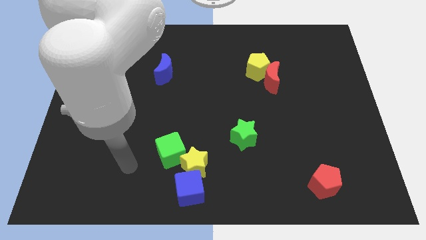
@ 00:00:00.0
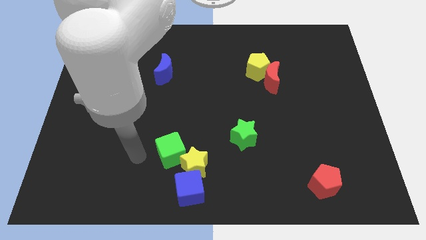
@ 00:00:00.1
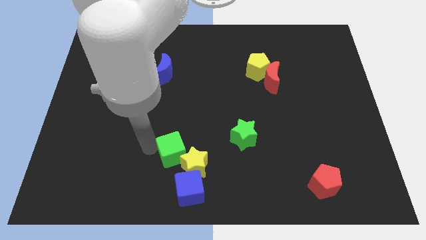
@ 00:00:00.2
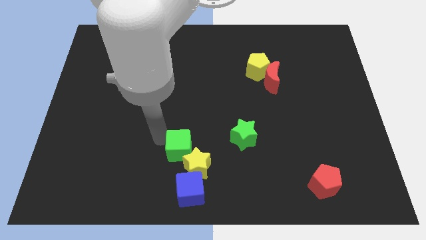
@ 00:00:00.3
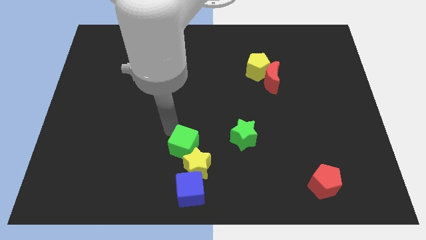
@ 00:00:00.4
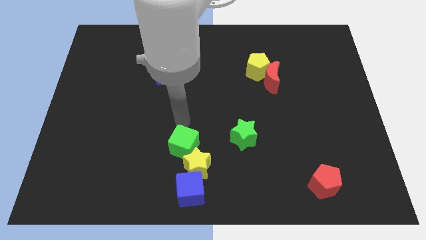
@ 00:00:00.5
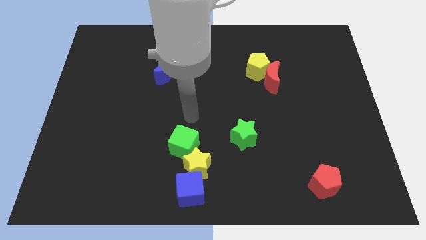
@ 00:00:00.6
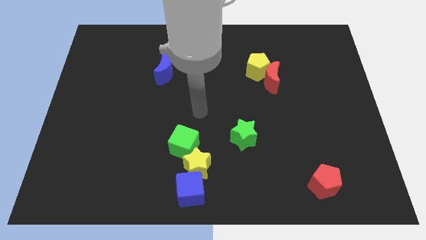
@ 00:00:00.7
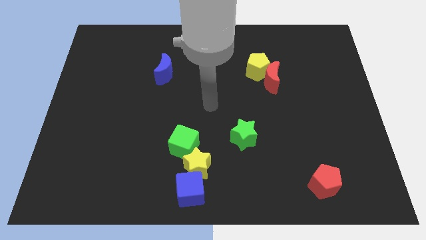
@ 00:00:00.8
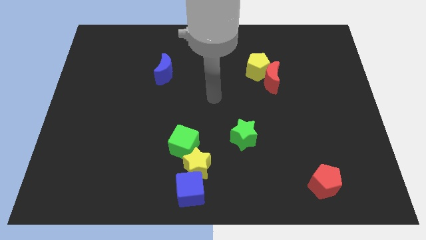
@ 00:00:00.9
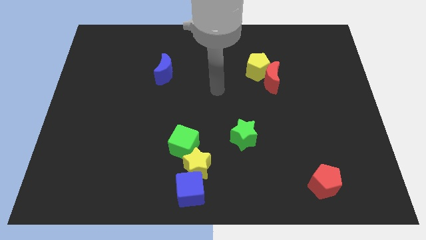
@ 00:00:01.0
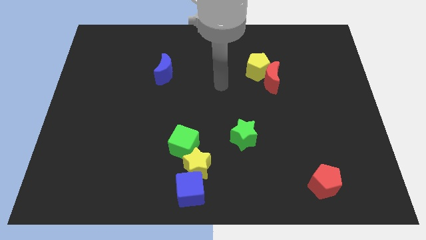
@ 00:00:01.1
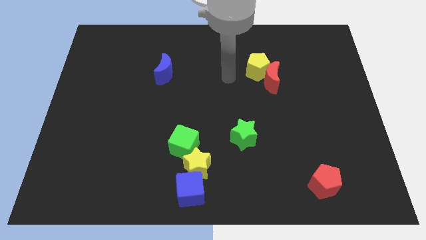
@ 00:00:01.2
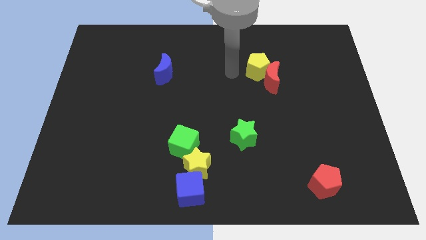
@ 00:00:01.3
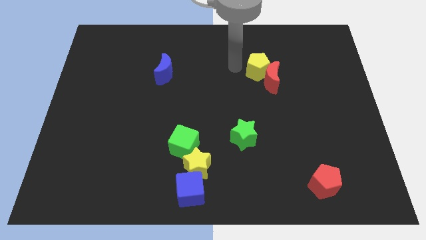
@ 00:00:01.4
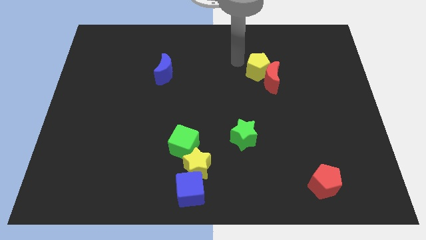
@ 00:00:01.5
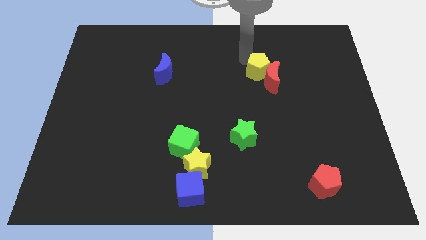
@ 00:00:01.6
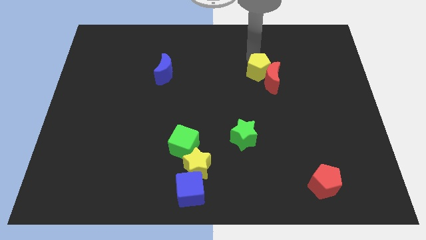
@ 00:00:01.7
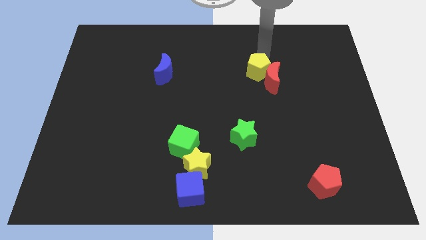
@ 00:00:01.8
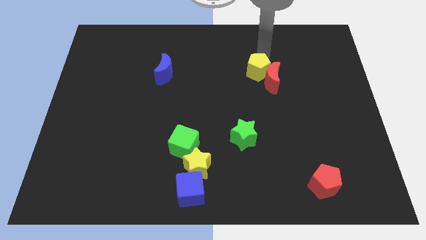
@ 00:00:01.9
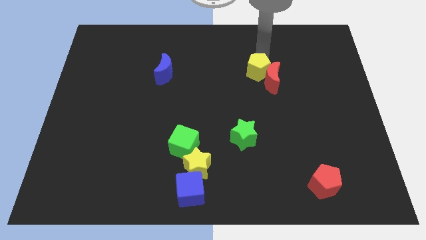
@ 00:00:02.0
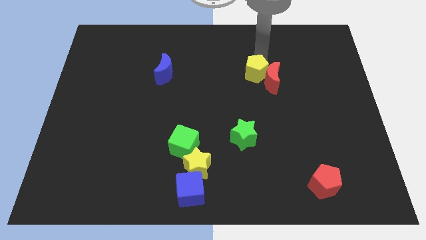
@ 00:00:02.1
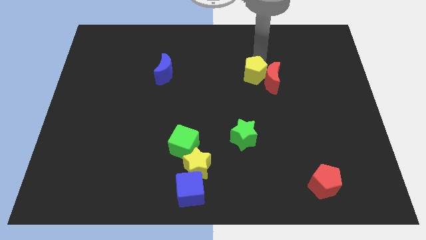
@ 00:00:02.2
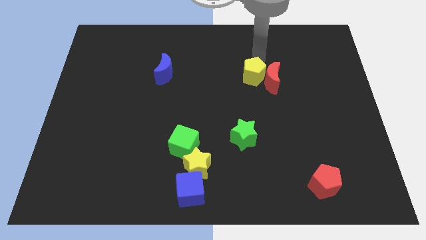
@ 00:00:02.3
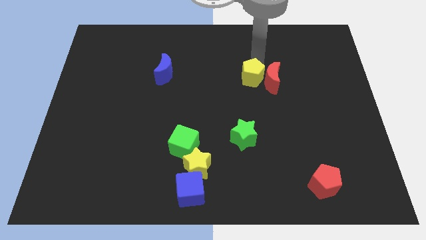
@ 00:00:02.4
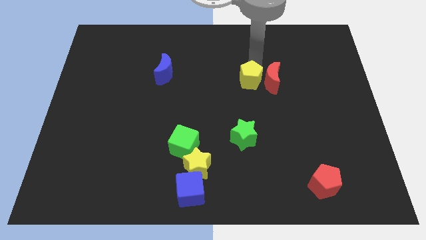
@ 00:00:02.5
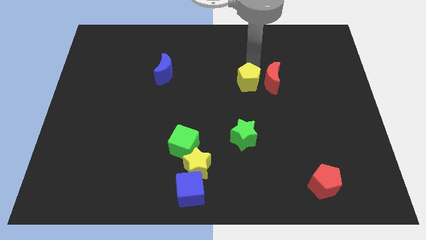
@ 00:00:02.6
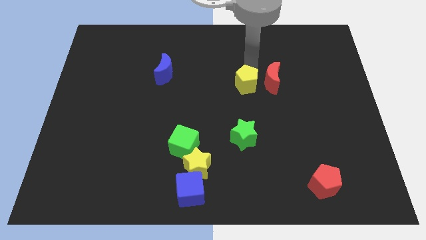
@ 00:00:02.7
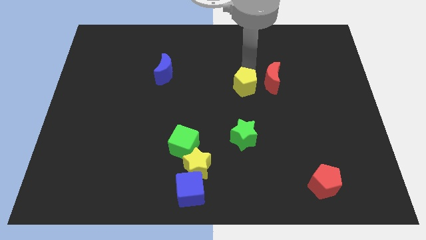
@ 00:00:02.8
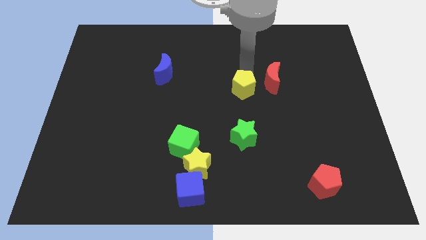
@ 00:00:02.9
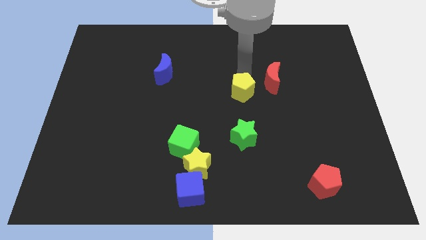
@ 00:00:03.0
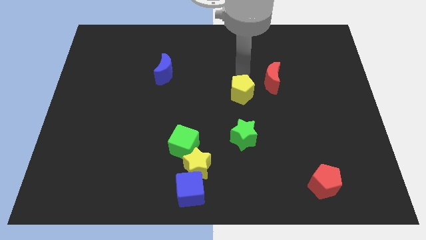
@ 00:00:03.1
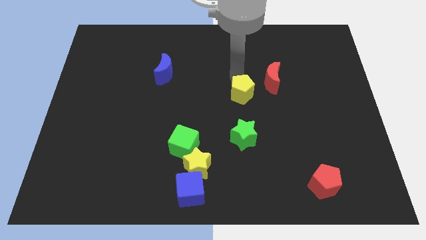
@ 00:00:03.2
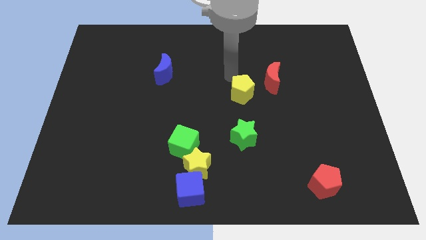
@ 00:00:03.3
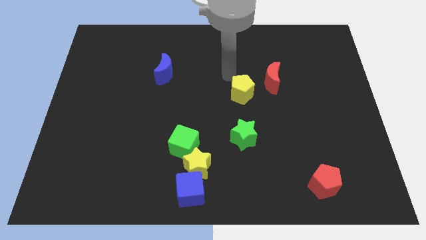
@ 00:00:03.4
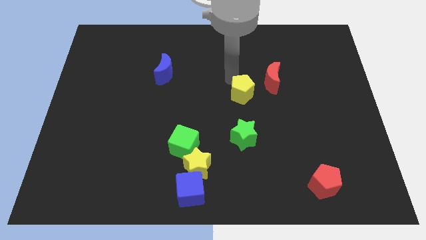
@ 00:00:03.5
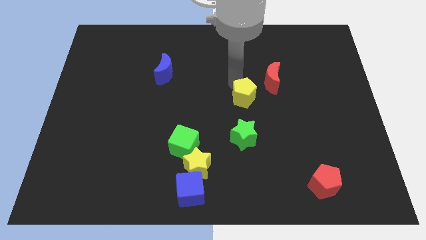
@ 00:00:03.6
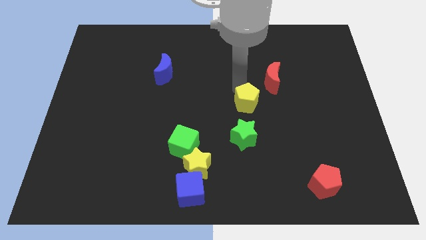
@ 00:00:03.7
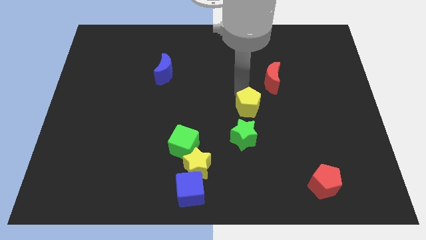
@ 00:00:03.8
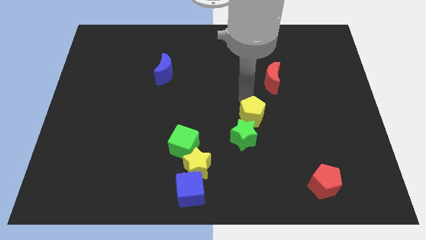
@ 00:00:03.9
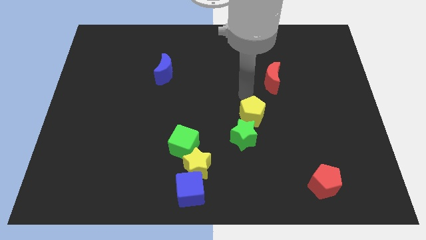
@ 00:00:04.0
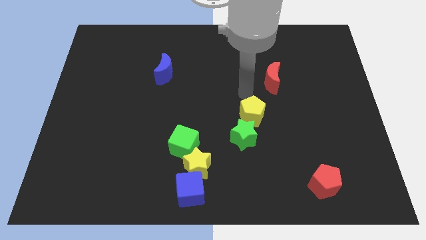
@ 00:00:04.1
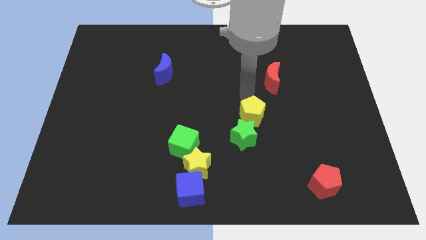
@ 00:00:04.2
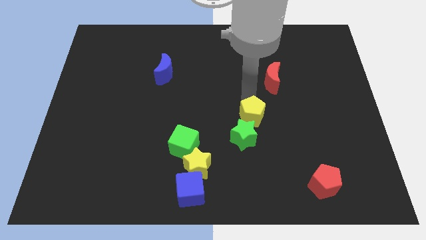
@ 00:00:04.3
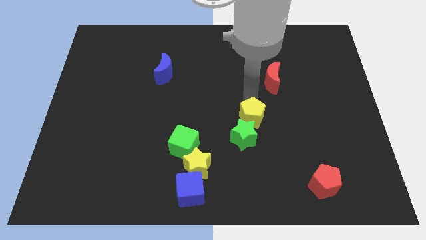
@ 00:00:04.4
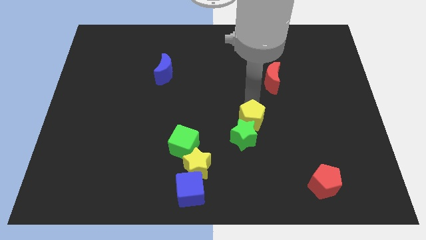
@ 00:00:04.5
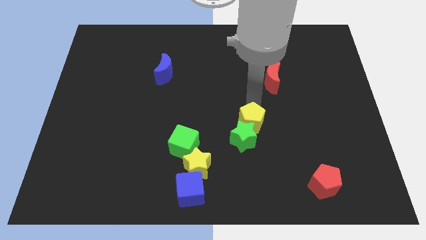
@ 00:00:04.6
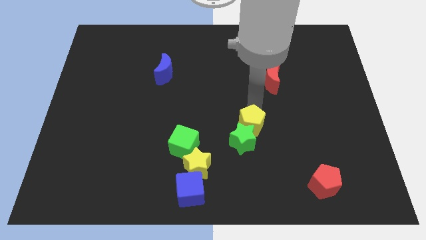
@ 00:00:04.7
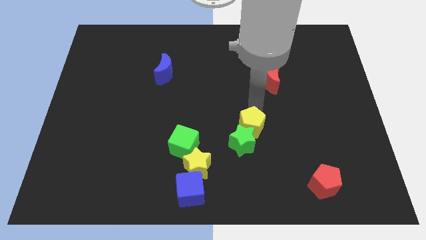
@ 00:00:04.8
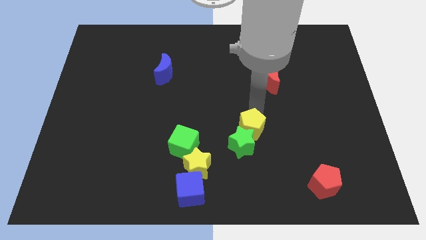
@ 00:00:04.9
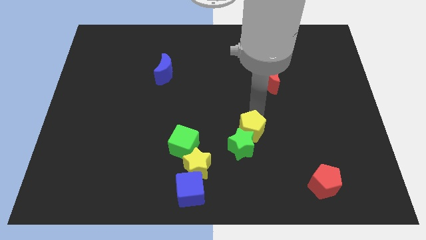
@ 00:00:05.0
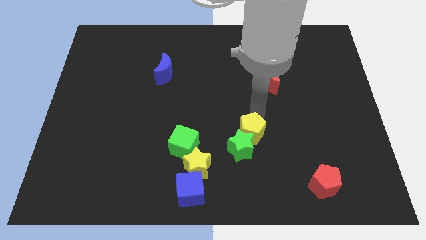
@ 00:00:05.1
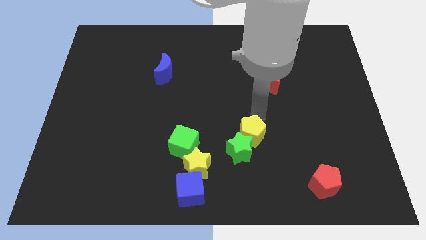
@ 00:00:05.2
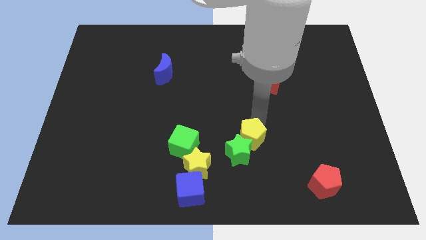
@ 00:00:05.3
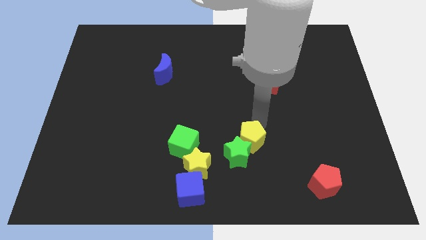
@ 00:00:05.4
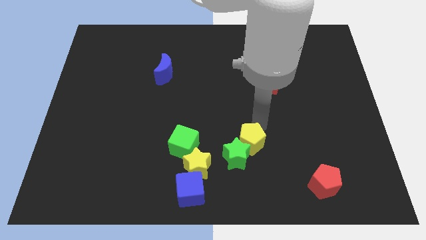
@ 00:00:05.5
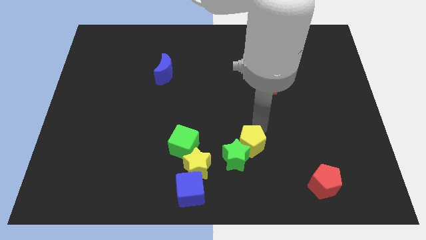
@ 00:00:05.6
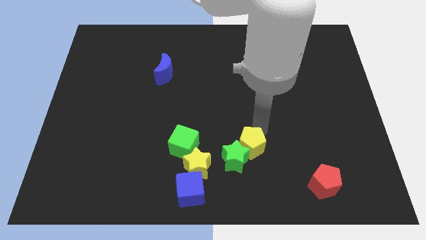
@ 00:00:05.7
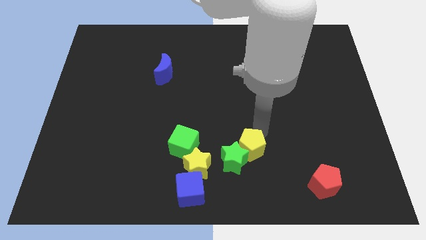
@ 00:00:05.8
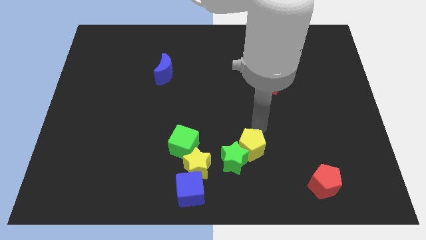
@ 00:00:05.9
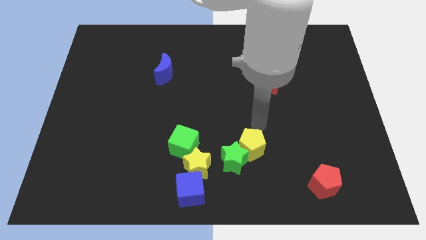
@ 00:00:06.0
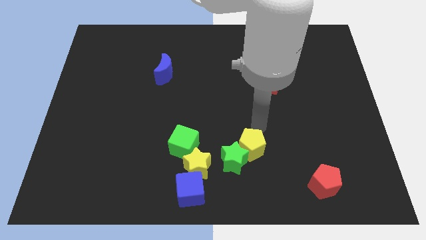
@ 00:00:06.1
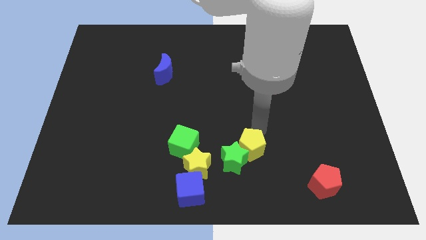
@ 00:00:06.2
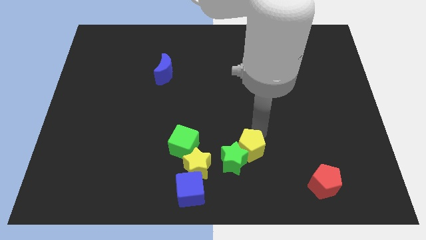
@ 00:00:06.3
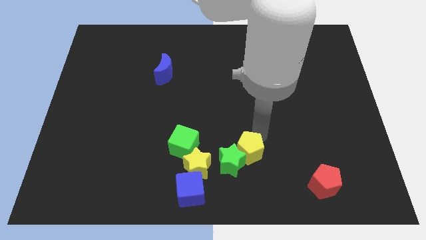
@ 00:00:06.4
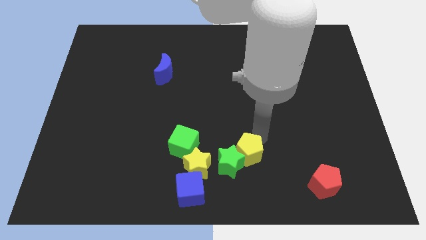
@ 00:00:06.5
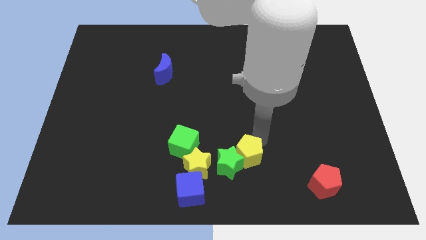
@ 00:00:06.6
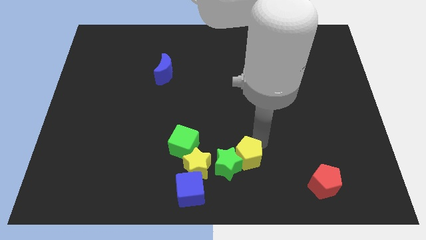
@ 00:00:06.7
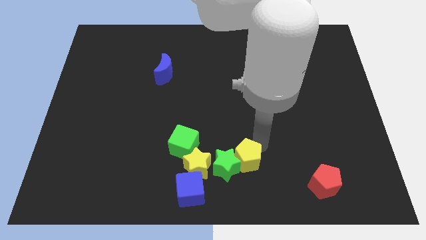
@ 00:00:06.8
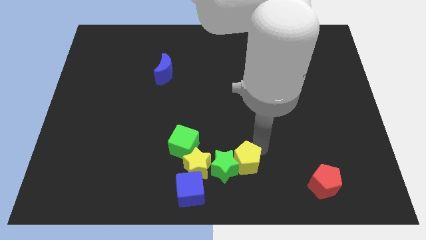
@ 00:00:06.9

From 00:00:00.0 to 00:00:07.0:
push the yellow pentagon to the bottom side
